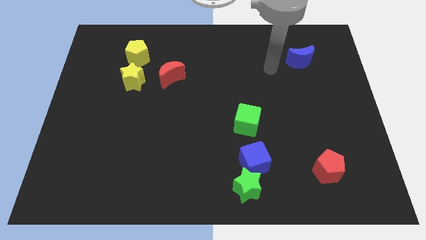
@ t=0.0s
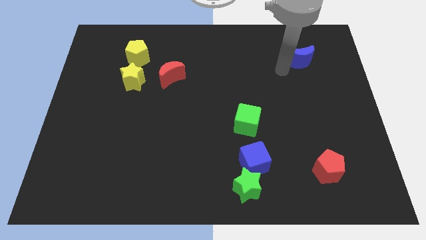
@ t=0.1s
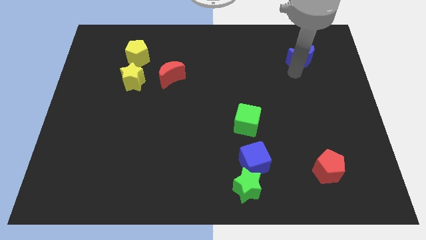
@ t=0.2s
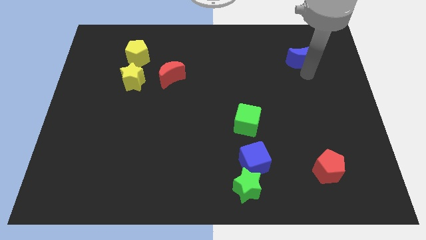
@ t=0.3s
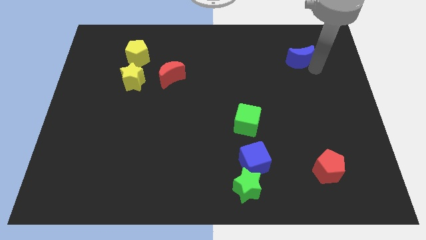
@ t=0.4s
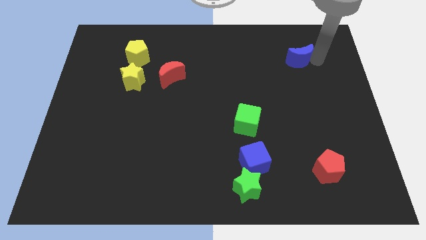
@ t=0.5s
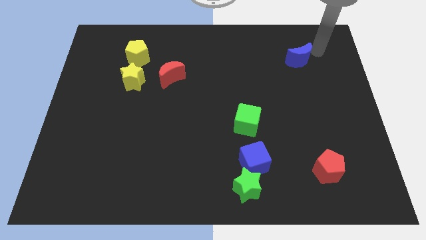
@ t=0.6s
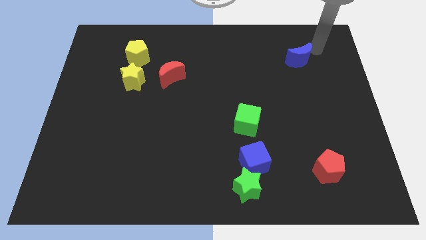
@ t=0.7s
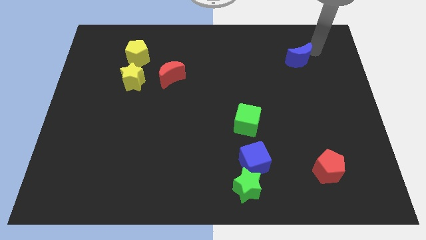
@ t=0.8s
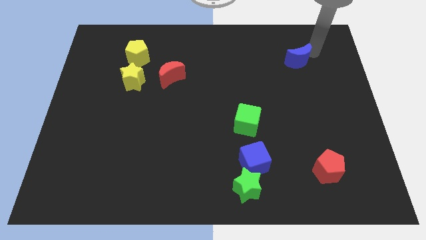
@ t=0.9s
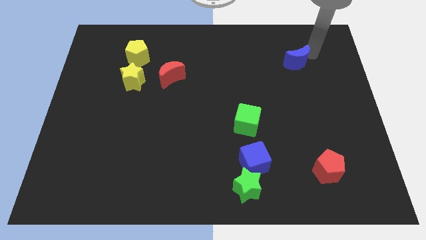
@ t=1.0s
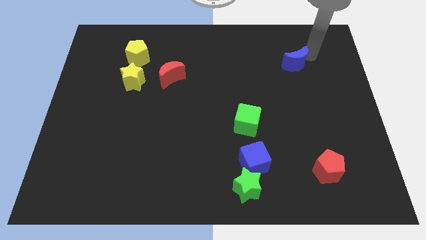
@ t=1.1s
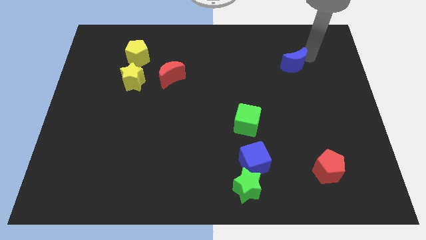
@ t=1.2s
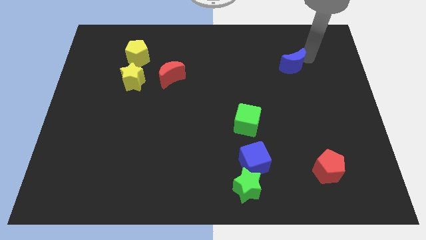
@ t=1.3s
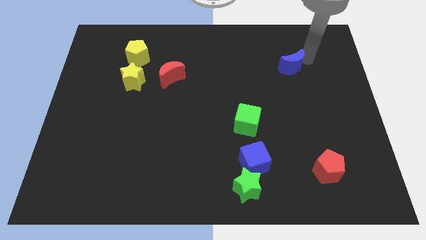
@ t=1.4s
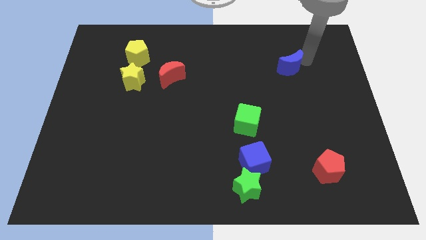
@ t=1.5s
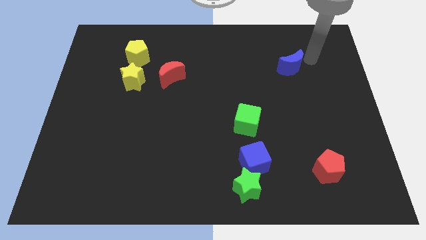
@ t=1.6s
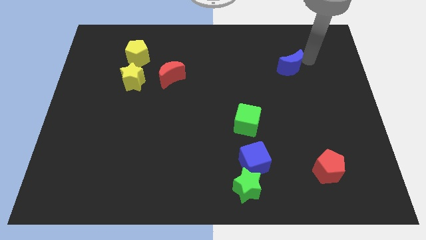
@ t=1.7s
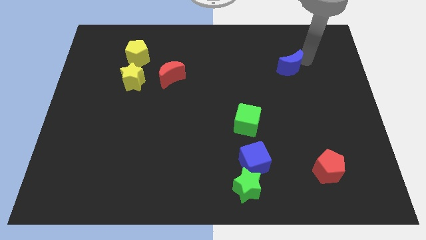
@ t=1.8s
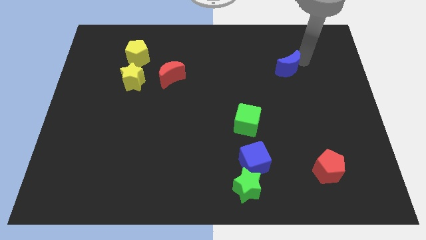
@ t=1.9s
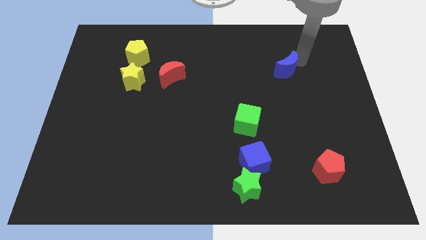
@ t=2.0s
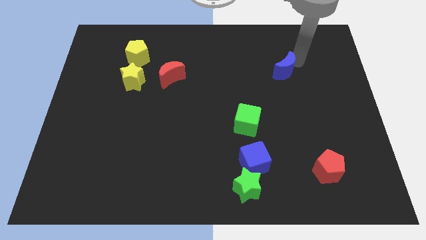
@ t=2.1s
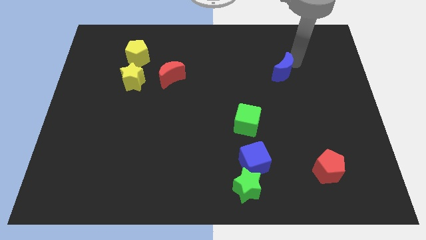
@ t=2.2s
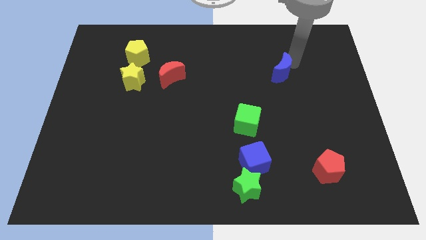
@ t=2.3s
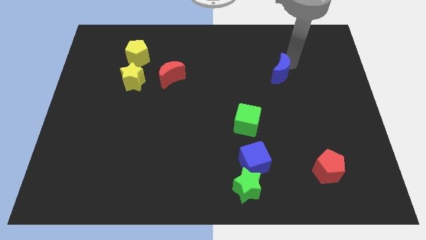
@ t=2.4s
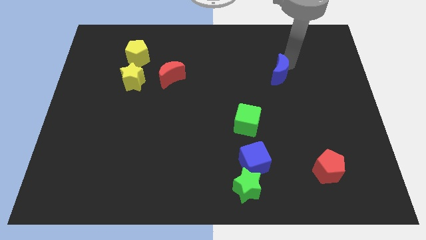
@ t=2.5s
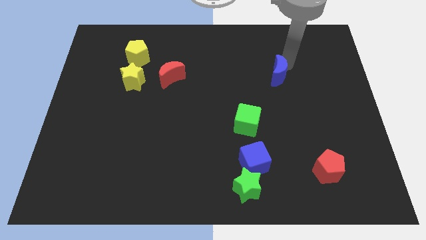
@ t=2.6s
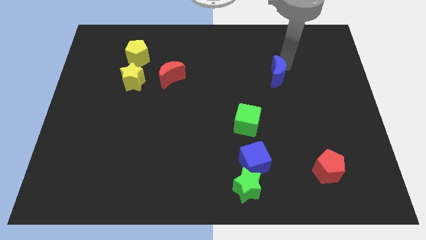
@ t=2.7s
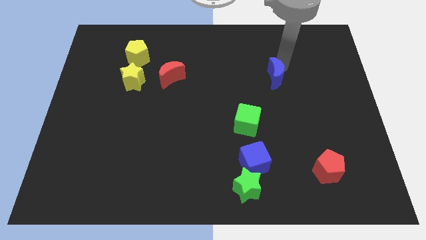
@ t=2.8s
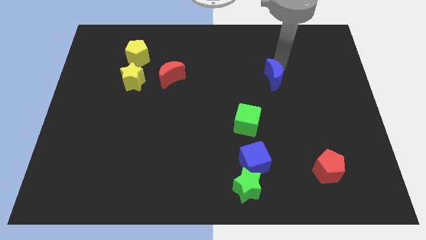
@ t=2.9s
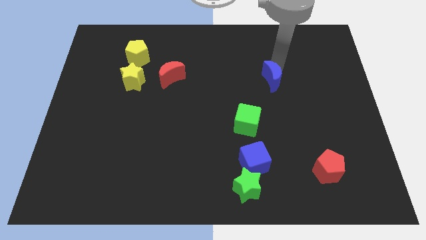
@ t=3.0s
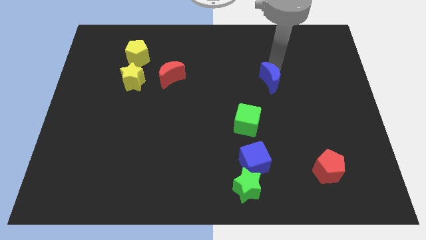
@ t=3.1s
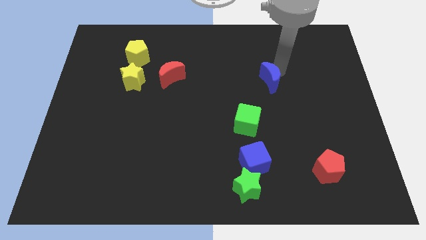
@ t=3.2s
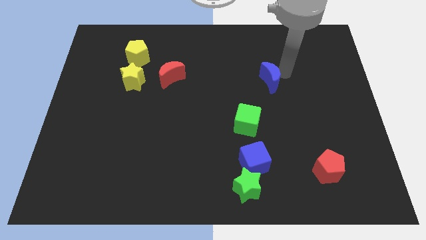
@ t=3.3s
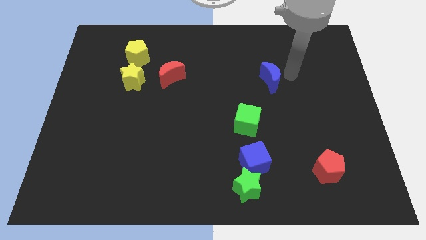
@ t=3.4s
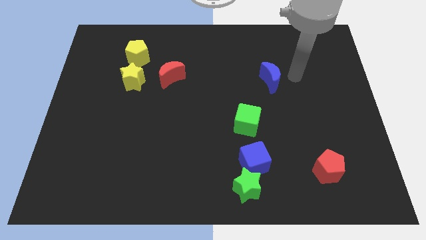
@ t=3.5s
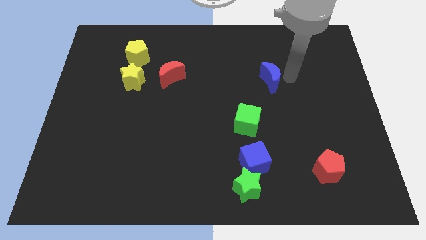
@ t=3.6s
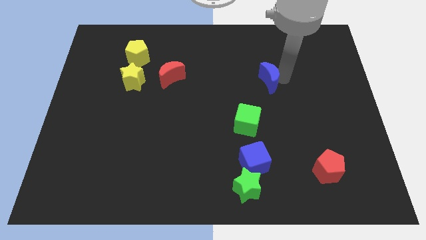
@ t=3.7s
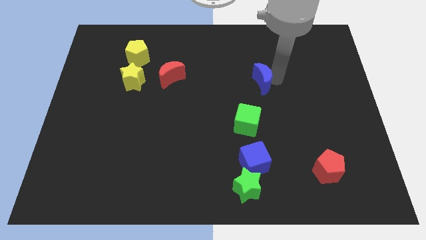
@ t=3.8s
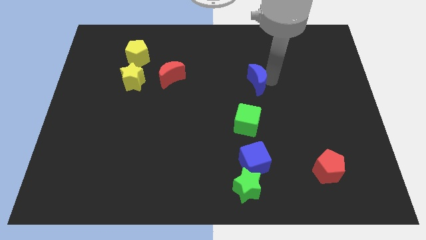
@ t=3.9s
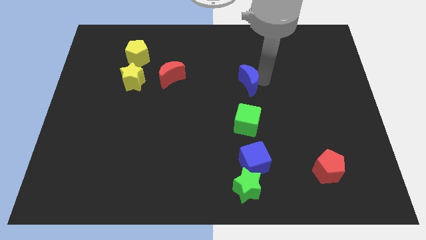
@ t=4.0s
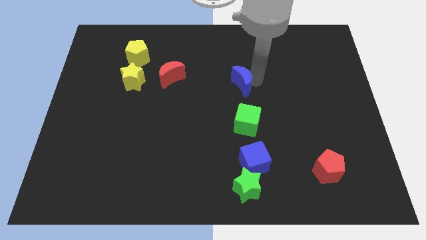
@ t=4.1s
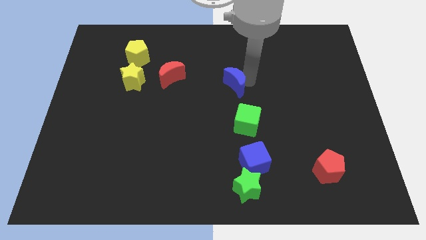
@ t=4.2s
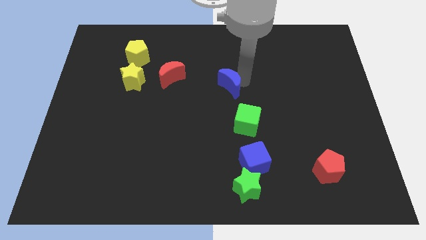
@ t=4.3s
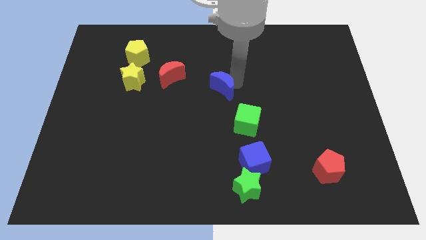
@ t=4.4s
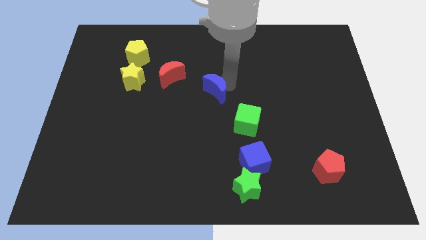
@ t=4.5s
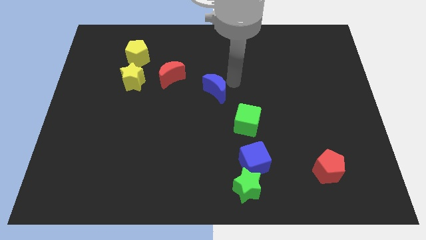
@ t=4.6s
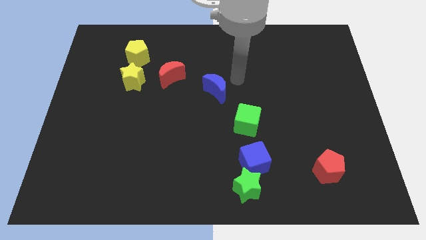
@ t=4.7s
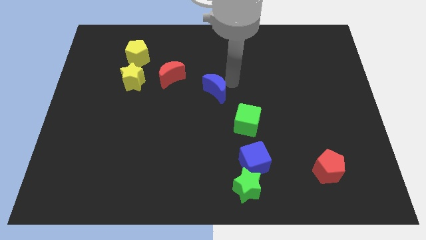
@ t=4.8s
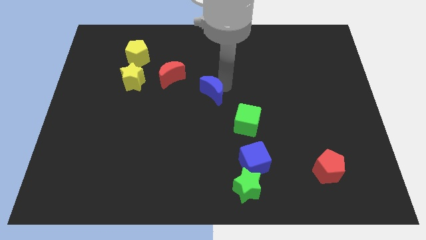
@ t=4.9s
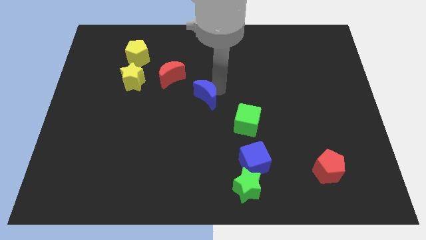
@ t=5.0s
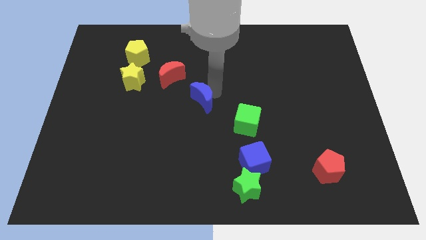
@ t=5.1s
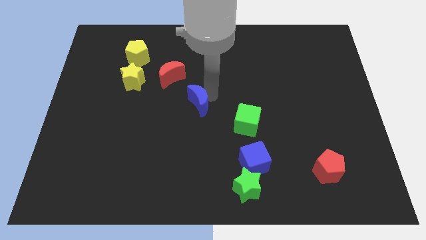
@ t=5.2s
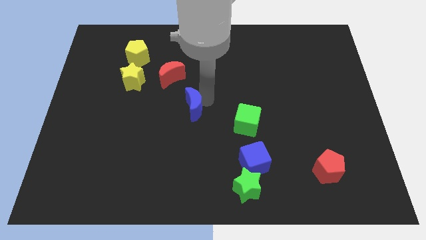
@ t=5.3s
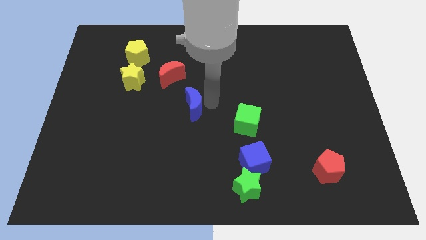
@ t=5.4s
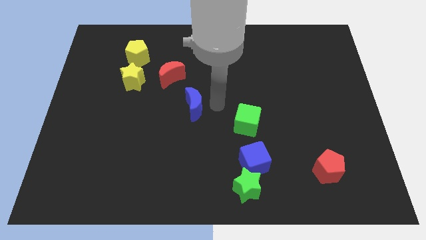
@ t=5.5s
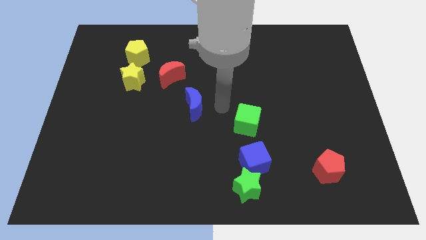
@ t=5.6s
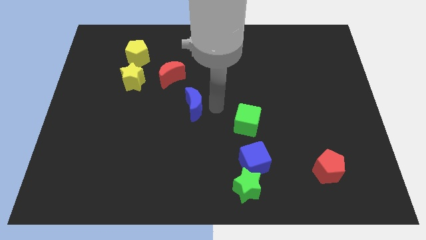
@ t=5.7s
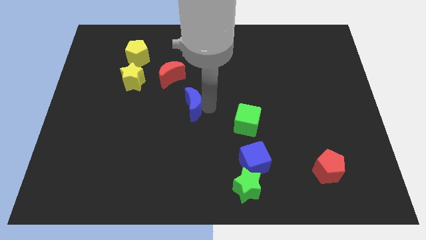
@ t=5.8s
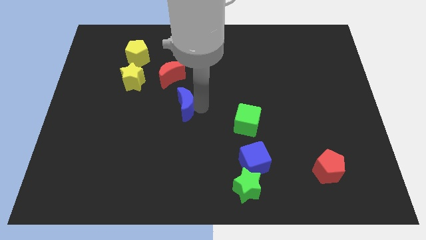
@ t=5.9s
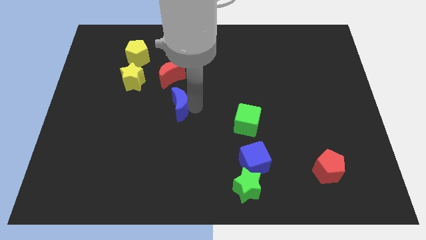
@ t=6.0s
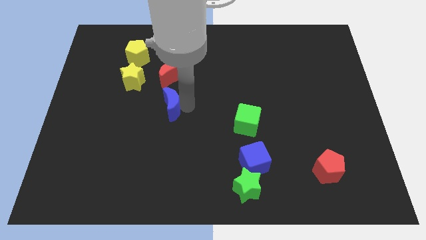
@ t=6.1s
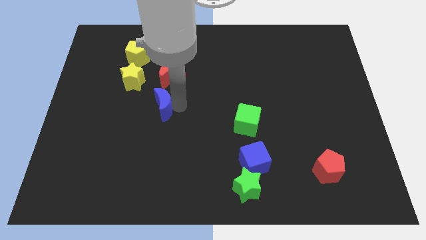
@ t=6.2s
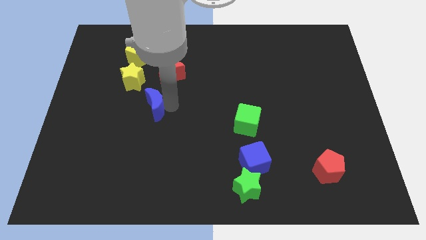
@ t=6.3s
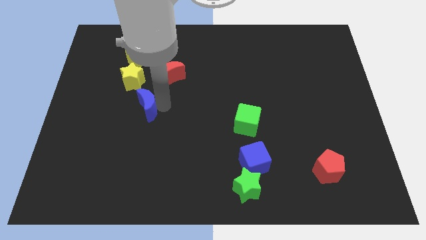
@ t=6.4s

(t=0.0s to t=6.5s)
slide the blue moon to the bottom of the yellow star

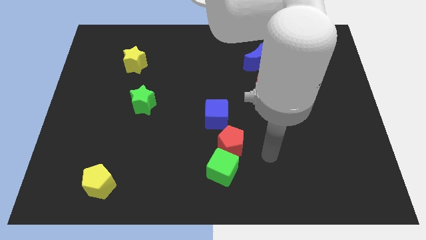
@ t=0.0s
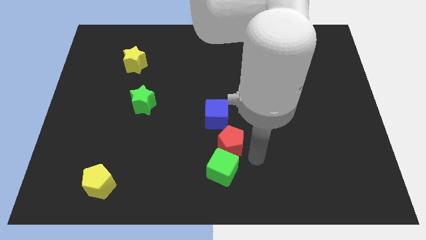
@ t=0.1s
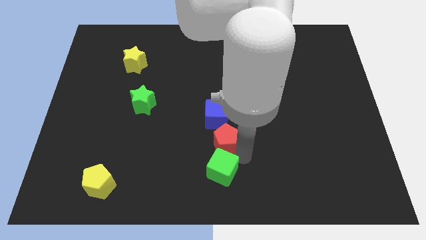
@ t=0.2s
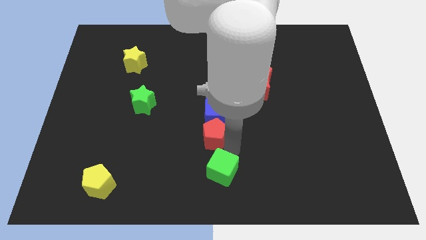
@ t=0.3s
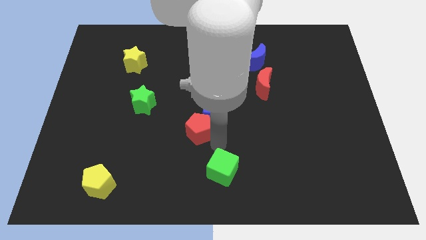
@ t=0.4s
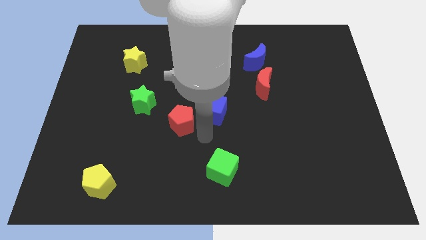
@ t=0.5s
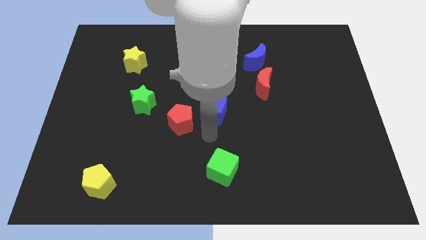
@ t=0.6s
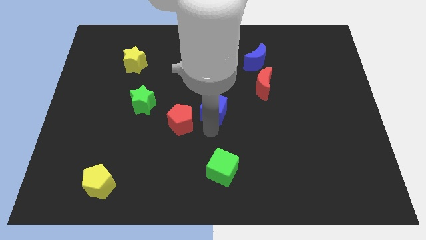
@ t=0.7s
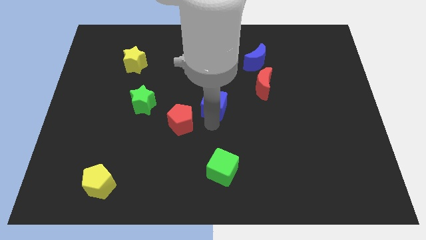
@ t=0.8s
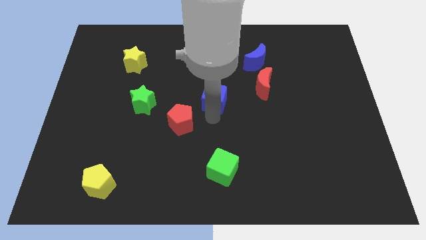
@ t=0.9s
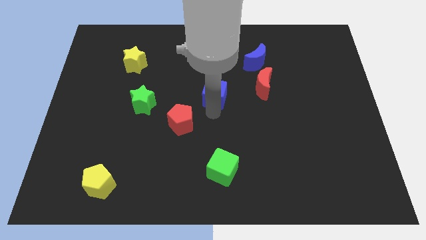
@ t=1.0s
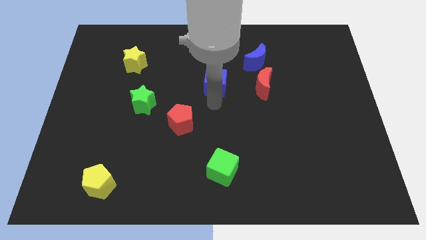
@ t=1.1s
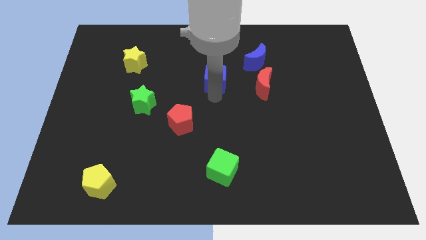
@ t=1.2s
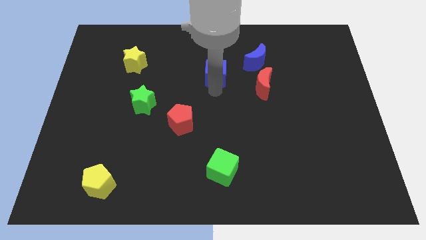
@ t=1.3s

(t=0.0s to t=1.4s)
put the blue cube just left of the blue moon
